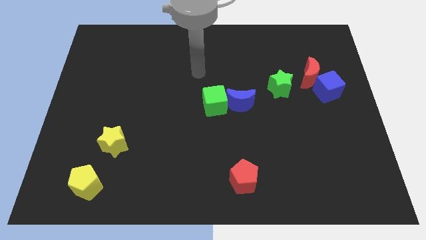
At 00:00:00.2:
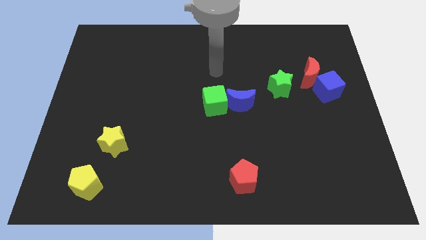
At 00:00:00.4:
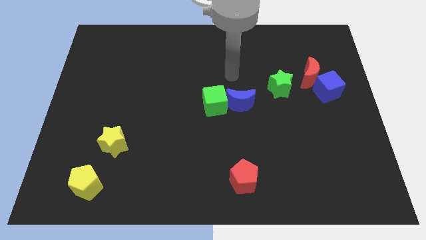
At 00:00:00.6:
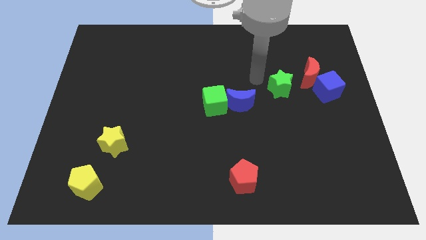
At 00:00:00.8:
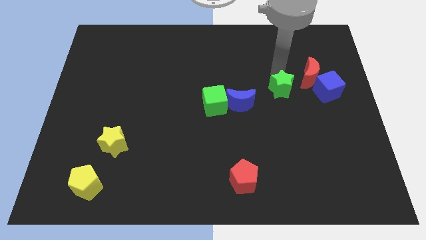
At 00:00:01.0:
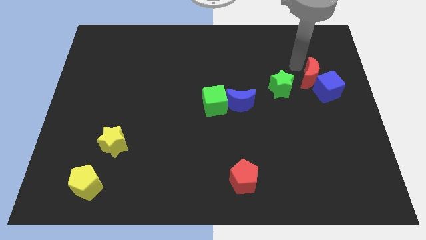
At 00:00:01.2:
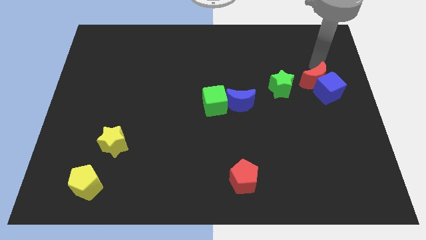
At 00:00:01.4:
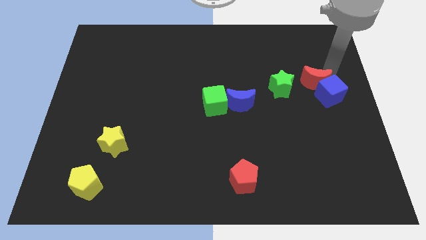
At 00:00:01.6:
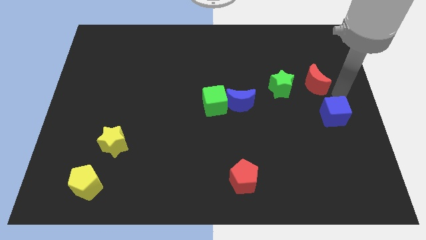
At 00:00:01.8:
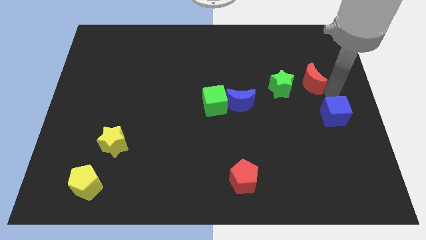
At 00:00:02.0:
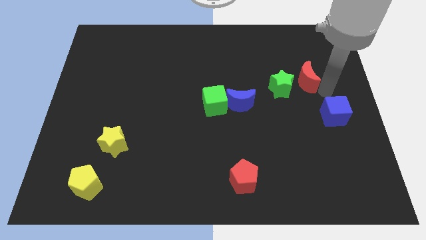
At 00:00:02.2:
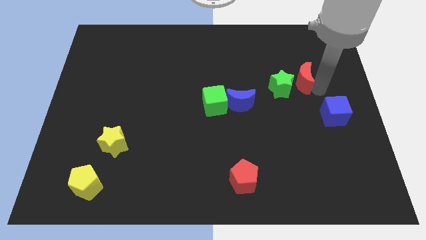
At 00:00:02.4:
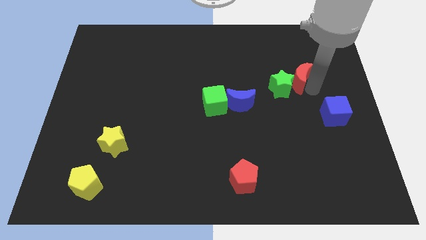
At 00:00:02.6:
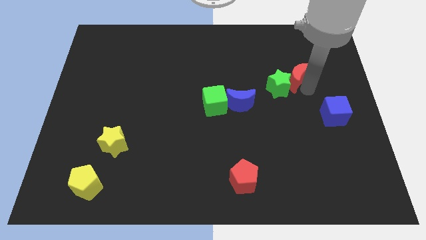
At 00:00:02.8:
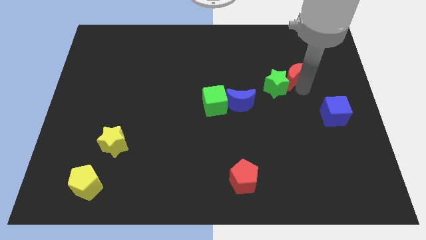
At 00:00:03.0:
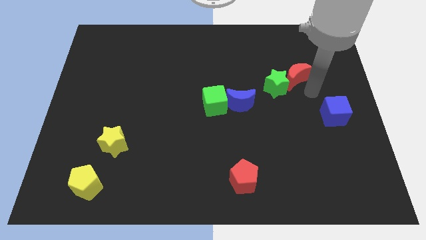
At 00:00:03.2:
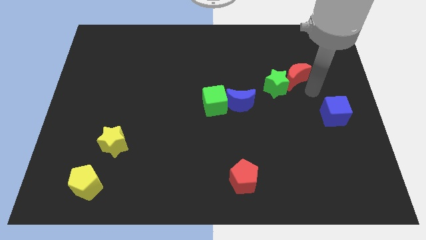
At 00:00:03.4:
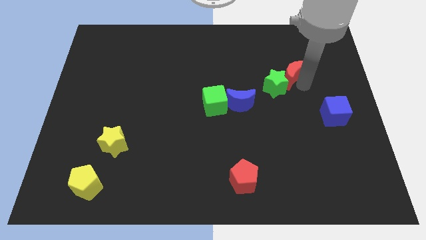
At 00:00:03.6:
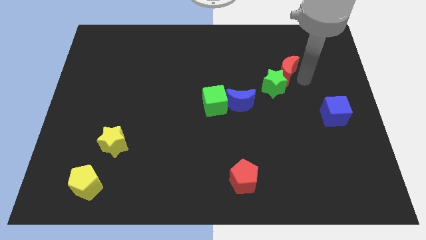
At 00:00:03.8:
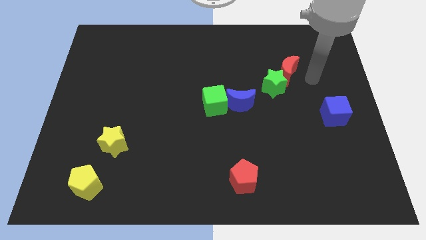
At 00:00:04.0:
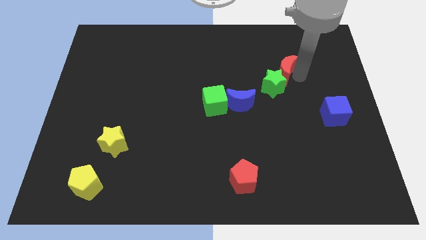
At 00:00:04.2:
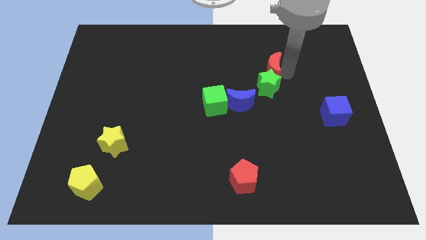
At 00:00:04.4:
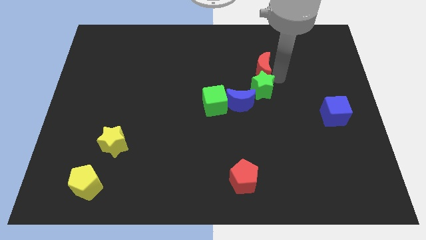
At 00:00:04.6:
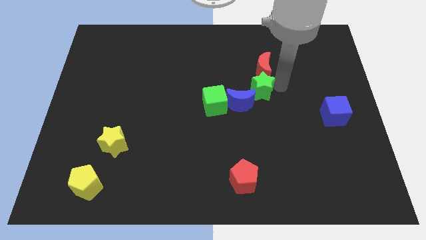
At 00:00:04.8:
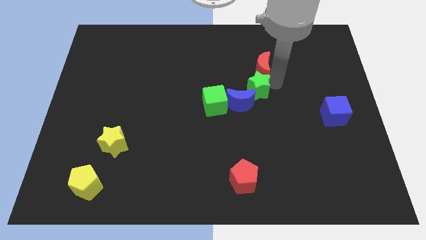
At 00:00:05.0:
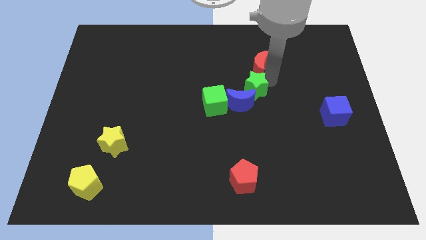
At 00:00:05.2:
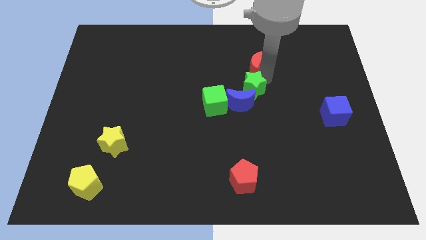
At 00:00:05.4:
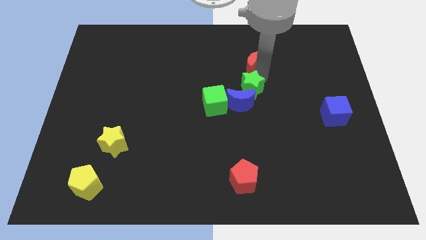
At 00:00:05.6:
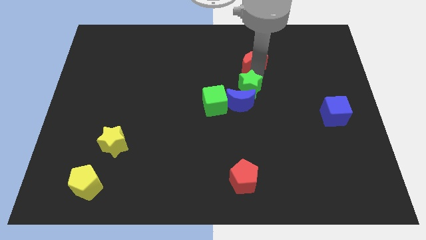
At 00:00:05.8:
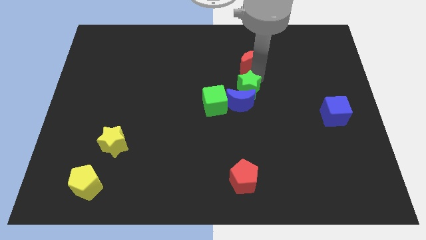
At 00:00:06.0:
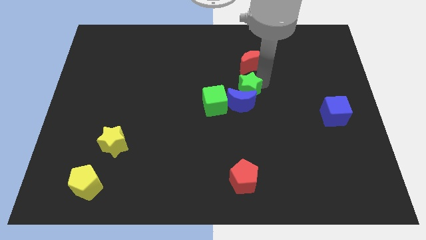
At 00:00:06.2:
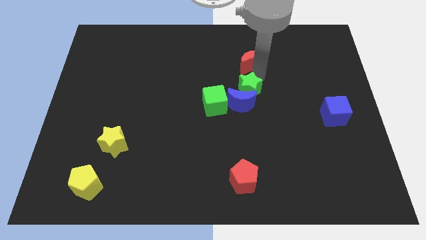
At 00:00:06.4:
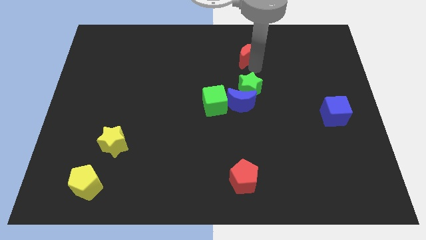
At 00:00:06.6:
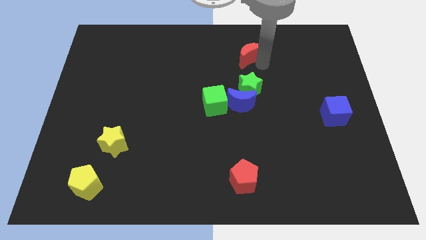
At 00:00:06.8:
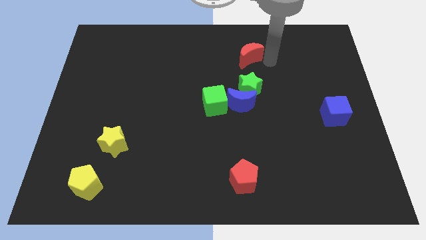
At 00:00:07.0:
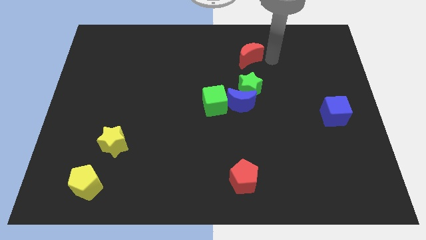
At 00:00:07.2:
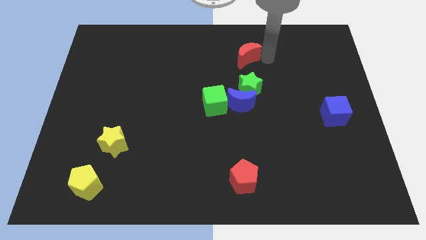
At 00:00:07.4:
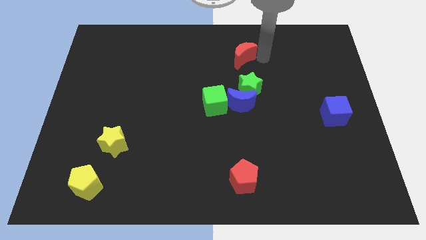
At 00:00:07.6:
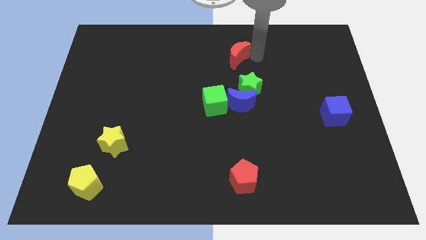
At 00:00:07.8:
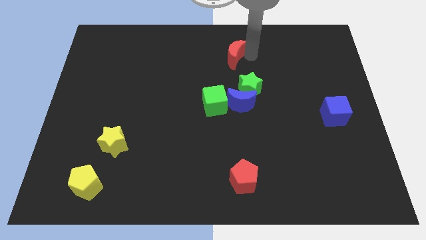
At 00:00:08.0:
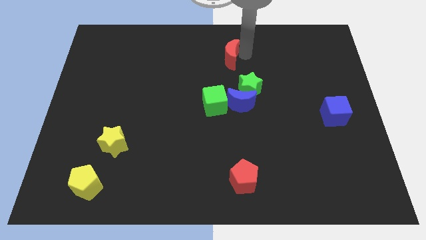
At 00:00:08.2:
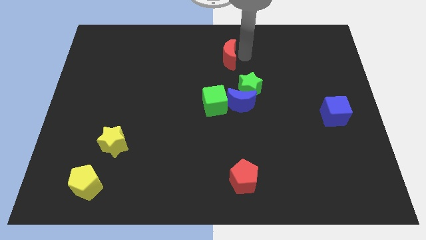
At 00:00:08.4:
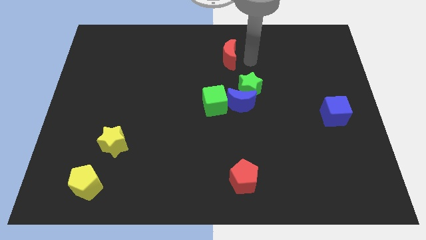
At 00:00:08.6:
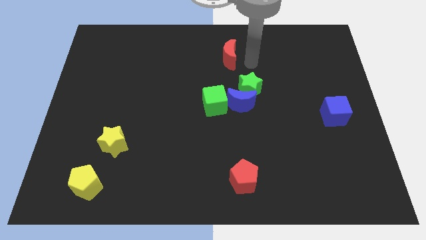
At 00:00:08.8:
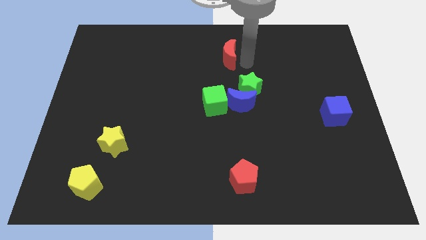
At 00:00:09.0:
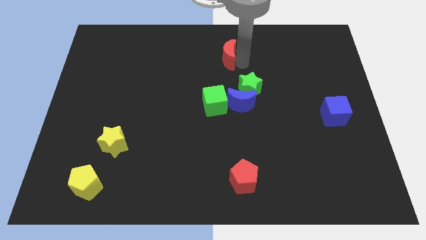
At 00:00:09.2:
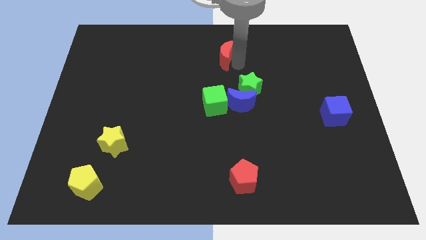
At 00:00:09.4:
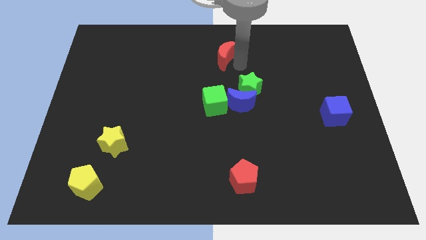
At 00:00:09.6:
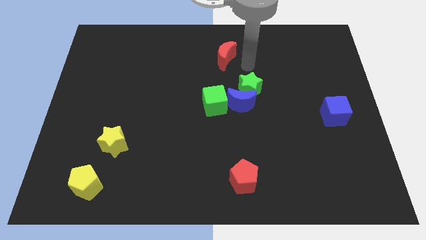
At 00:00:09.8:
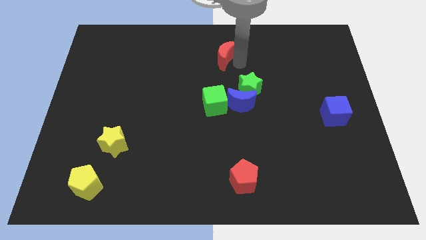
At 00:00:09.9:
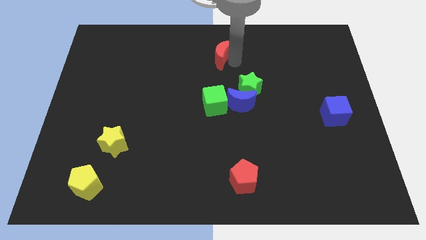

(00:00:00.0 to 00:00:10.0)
push the red moon to the towards your base

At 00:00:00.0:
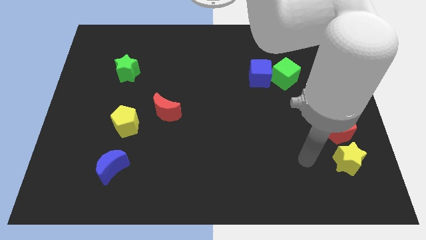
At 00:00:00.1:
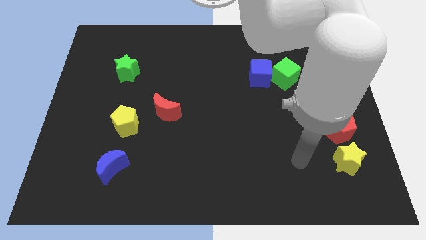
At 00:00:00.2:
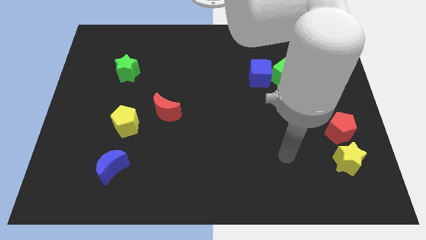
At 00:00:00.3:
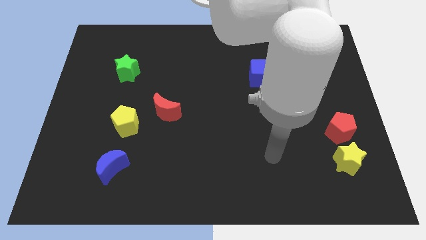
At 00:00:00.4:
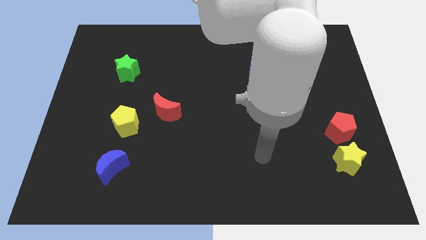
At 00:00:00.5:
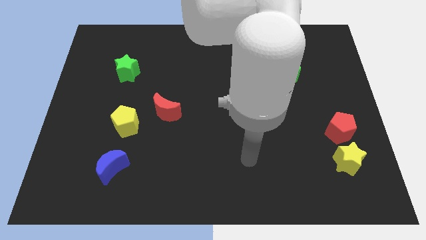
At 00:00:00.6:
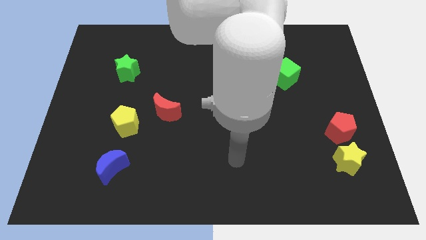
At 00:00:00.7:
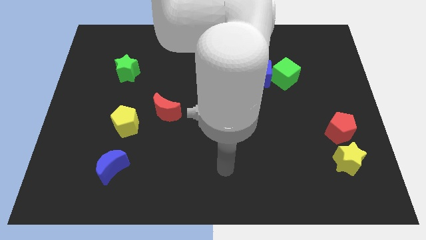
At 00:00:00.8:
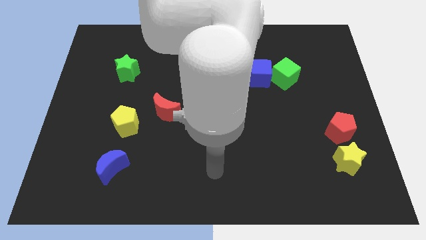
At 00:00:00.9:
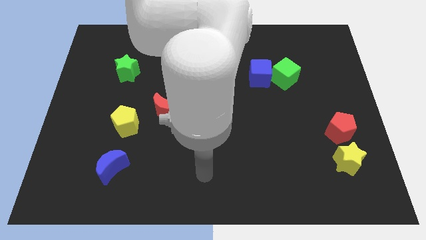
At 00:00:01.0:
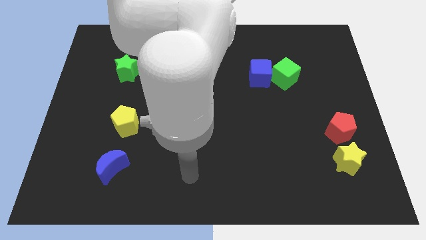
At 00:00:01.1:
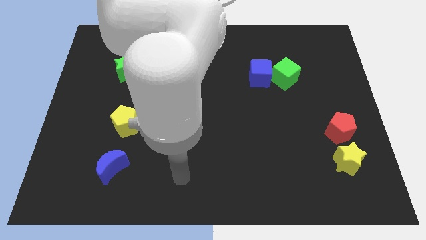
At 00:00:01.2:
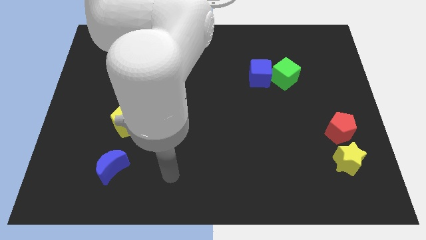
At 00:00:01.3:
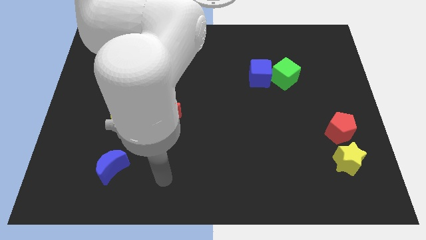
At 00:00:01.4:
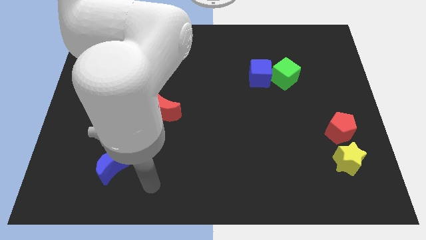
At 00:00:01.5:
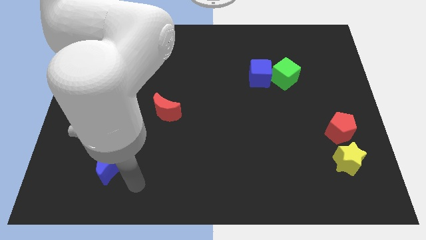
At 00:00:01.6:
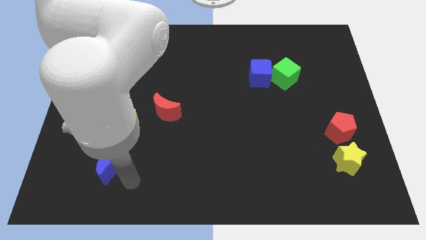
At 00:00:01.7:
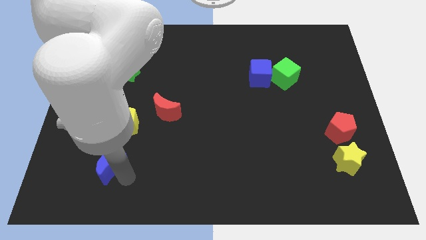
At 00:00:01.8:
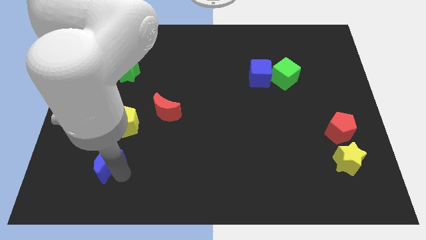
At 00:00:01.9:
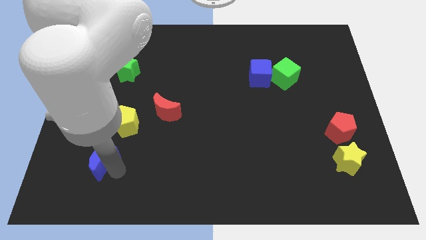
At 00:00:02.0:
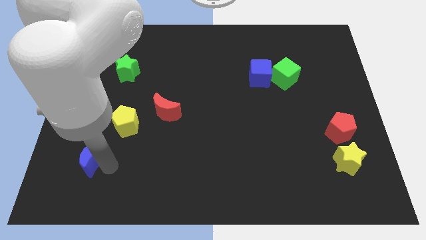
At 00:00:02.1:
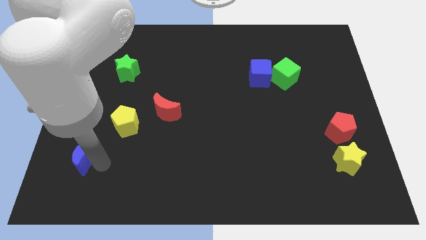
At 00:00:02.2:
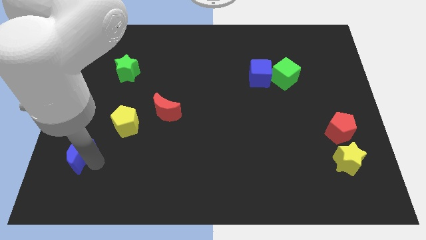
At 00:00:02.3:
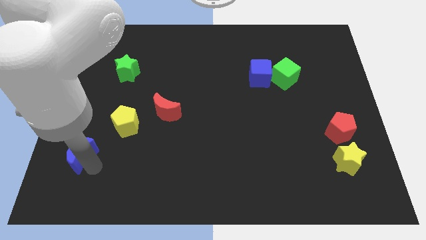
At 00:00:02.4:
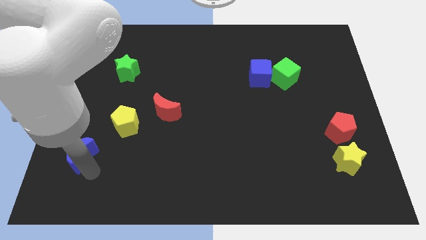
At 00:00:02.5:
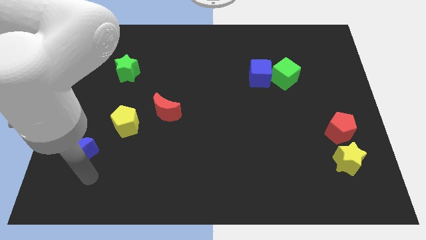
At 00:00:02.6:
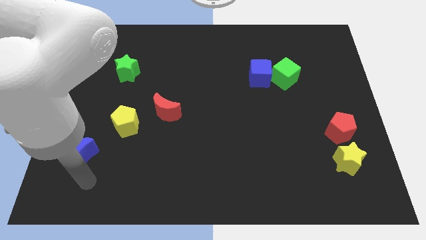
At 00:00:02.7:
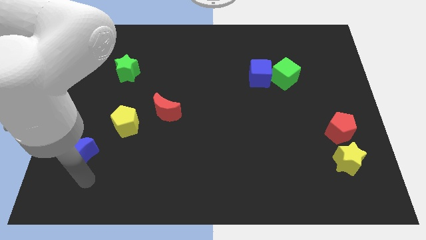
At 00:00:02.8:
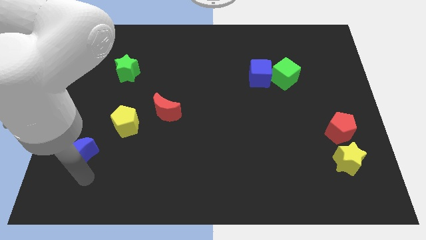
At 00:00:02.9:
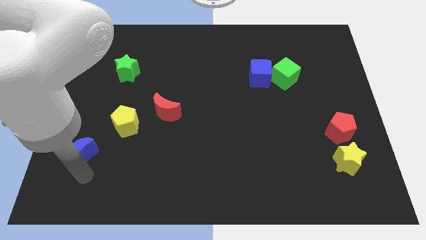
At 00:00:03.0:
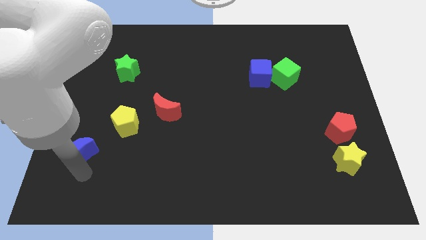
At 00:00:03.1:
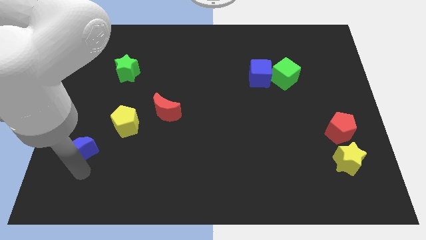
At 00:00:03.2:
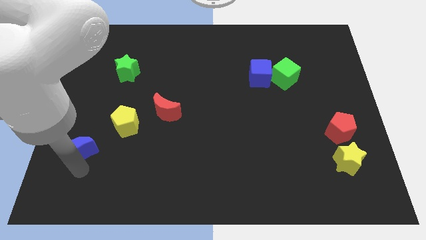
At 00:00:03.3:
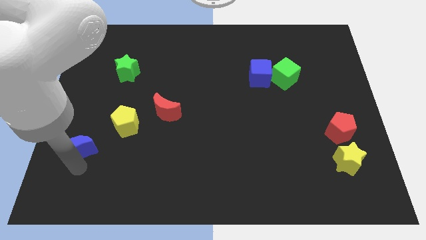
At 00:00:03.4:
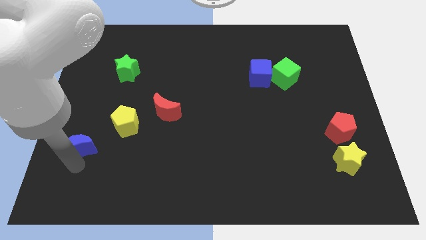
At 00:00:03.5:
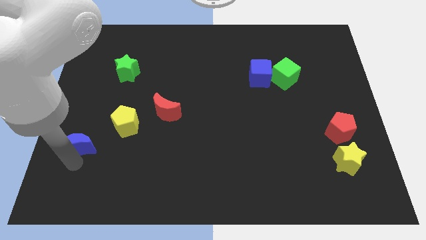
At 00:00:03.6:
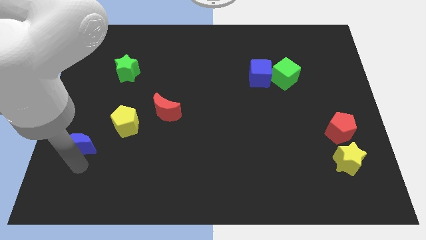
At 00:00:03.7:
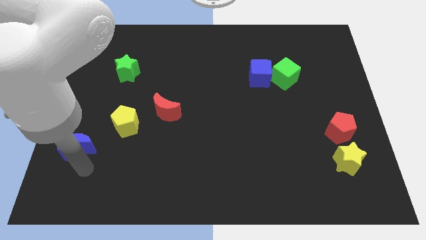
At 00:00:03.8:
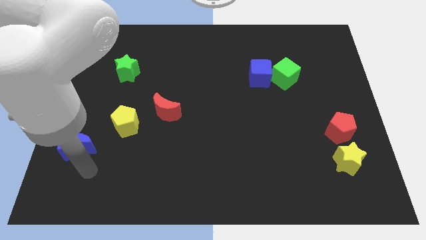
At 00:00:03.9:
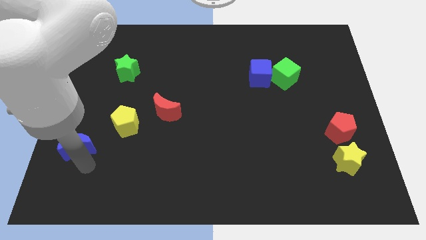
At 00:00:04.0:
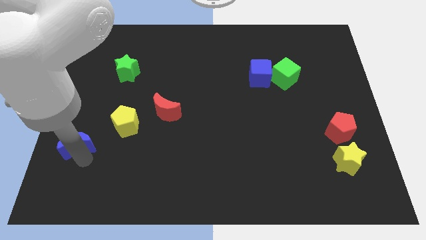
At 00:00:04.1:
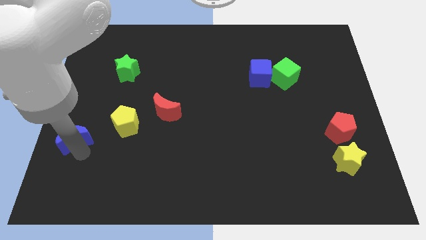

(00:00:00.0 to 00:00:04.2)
push the blue moon to the center left
